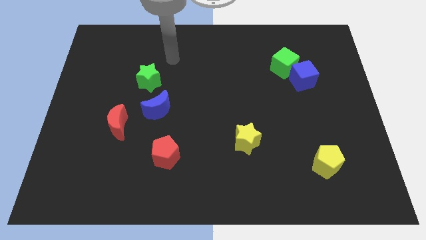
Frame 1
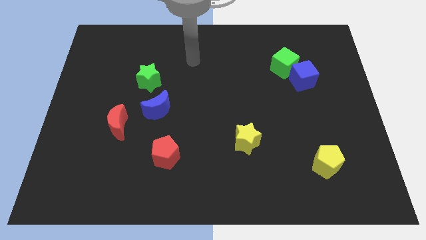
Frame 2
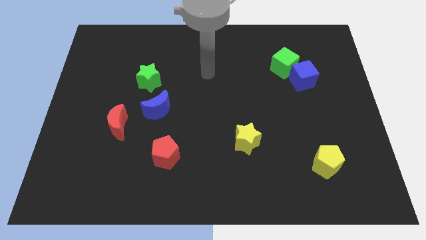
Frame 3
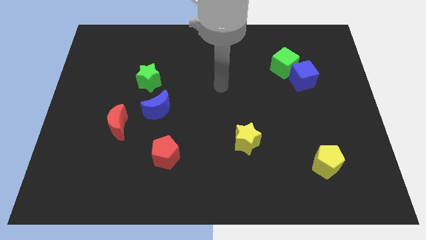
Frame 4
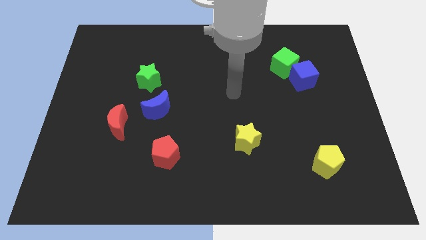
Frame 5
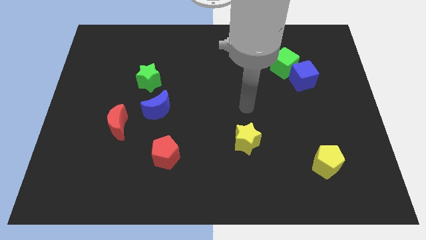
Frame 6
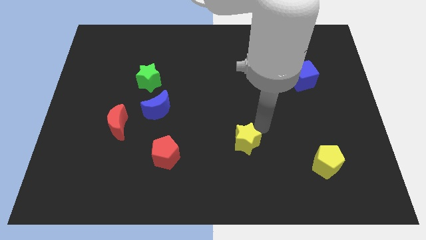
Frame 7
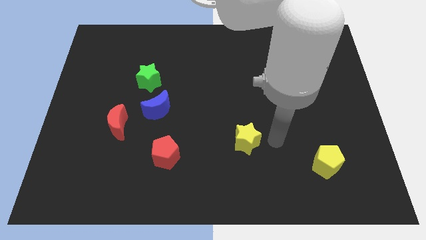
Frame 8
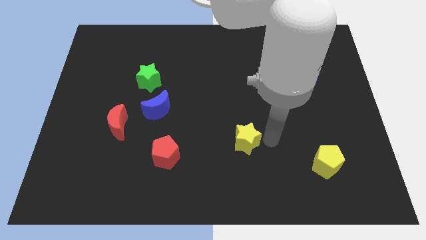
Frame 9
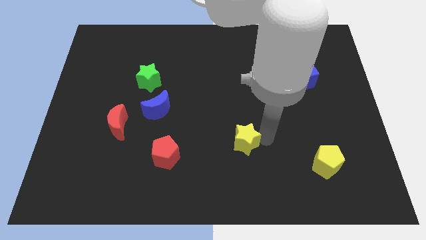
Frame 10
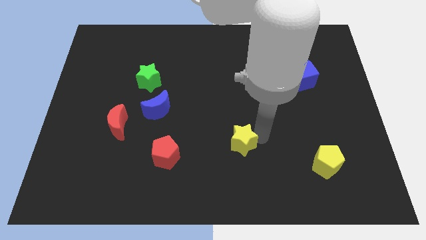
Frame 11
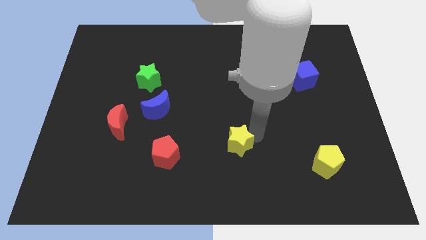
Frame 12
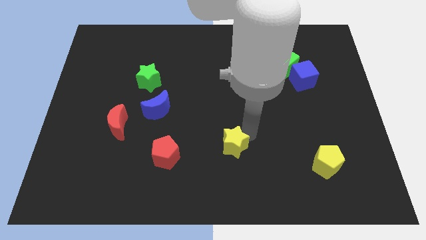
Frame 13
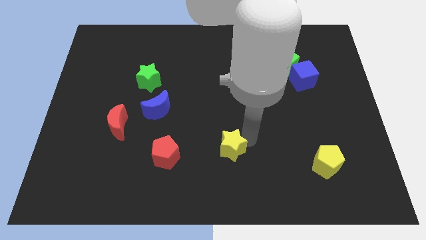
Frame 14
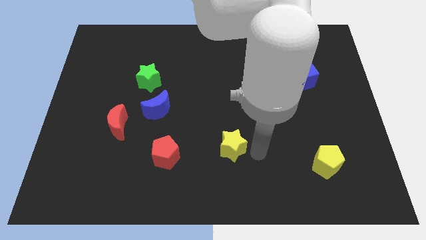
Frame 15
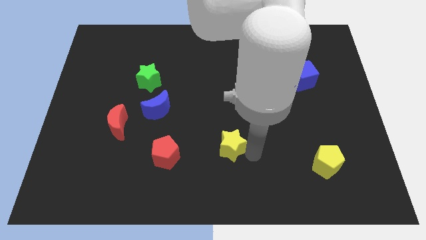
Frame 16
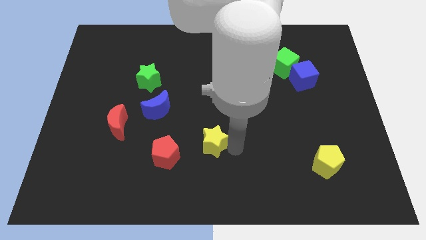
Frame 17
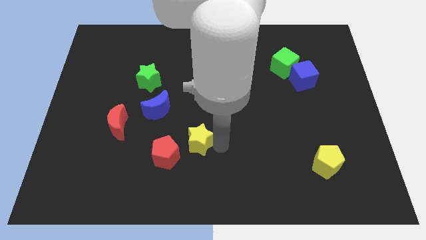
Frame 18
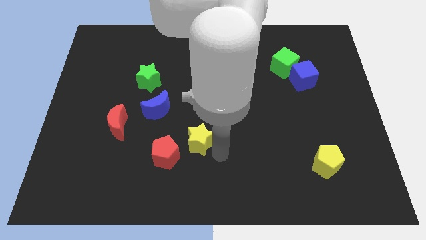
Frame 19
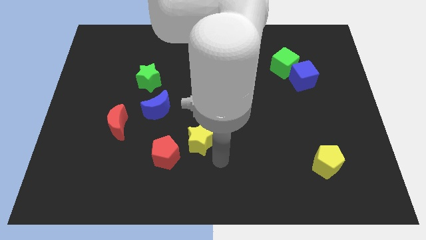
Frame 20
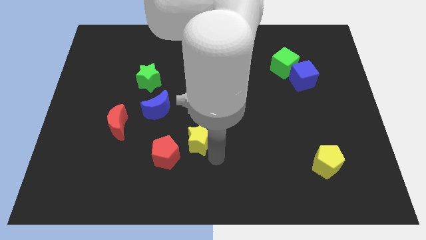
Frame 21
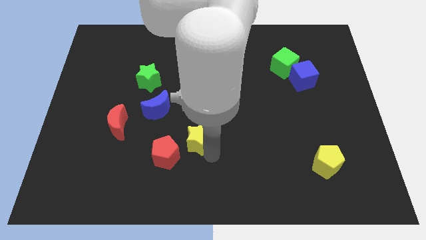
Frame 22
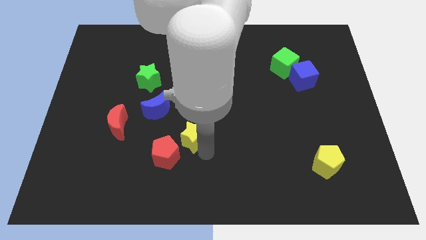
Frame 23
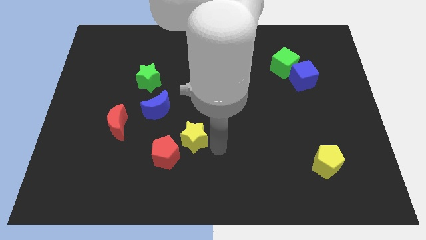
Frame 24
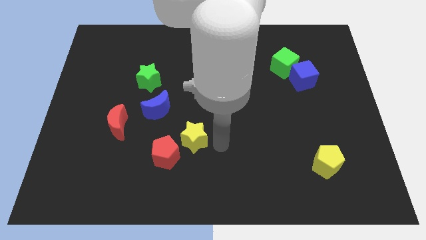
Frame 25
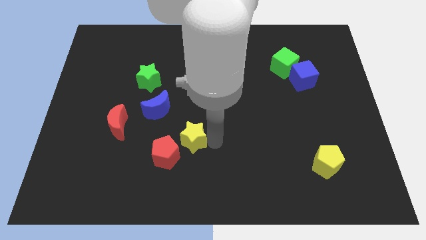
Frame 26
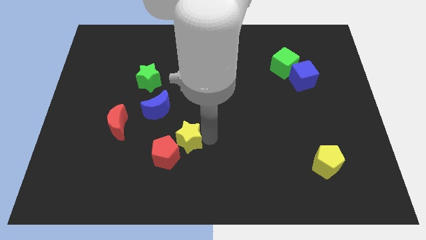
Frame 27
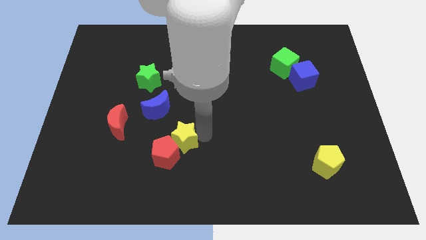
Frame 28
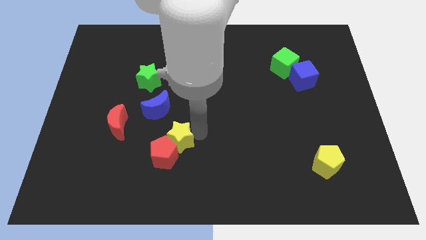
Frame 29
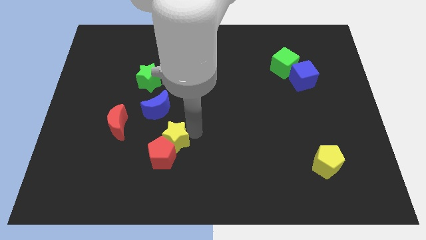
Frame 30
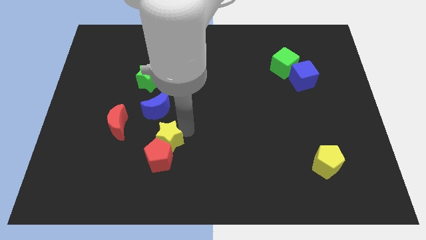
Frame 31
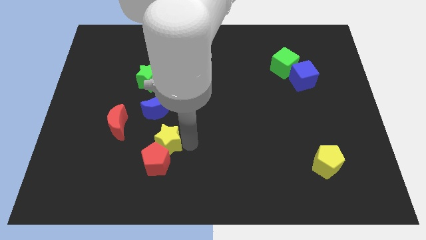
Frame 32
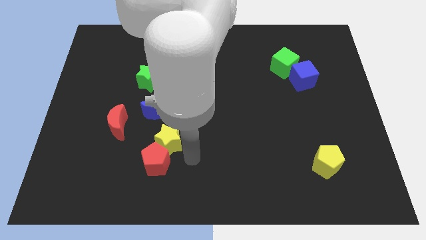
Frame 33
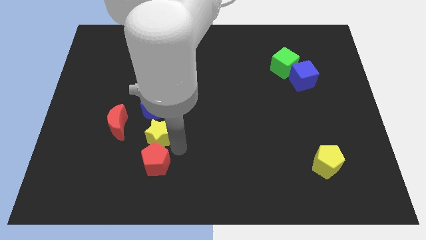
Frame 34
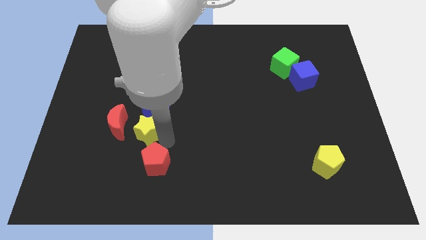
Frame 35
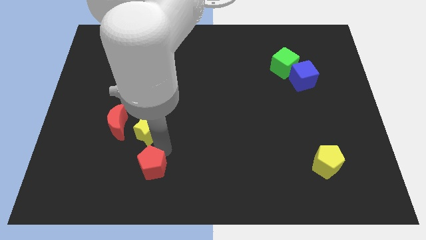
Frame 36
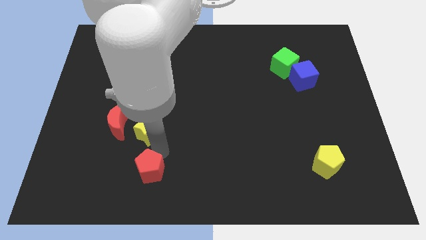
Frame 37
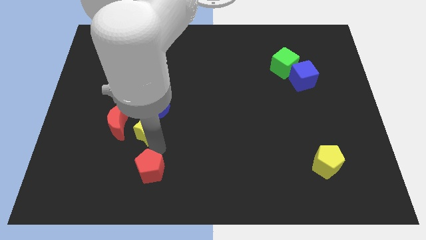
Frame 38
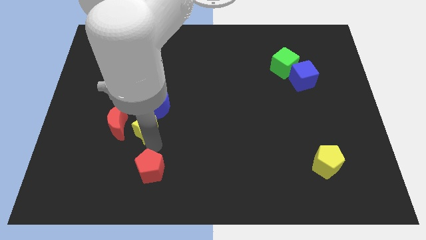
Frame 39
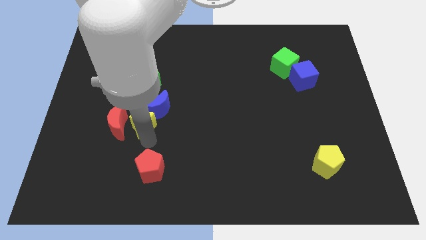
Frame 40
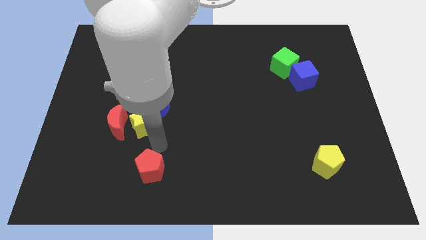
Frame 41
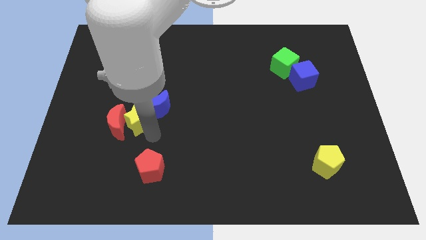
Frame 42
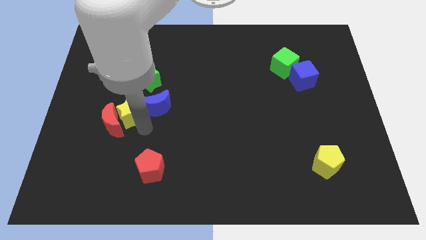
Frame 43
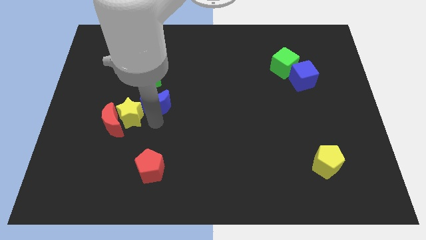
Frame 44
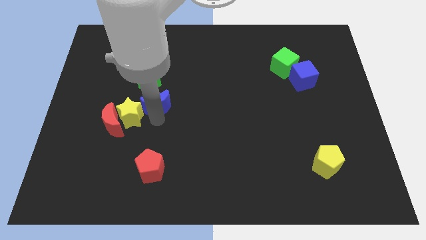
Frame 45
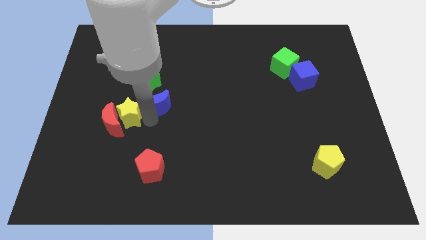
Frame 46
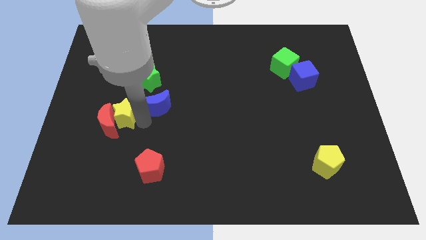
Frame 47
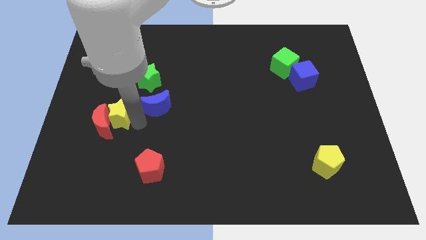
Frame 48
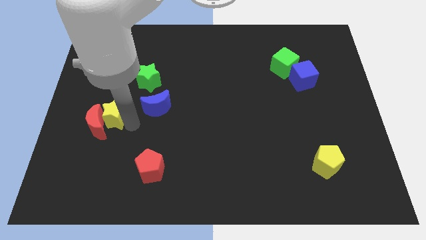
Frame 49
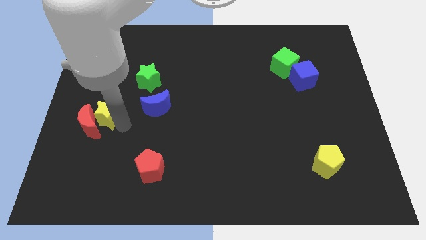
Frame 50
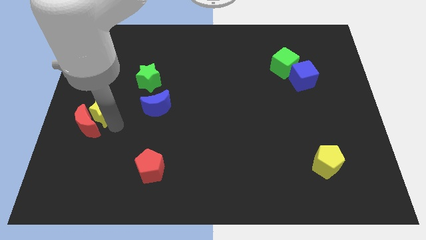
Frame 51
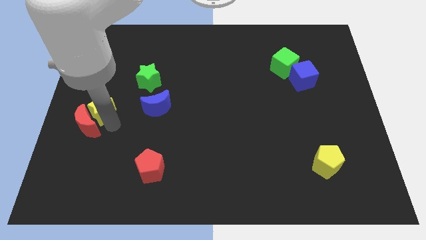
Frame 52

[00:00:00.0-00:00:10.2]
move the yellow star to the left side

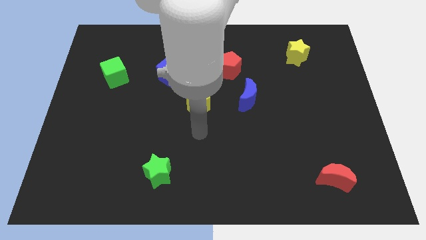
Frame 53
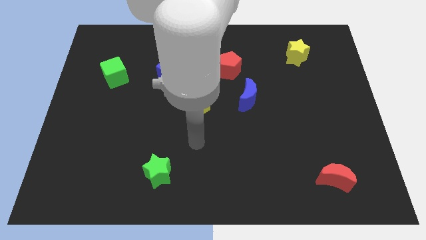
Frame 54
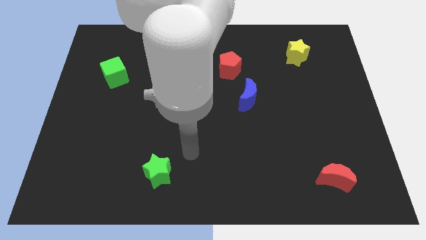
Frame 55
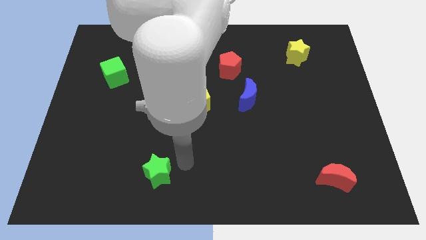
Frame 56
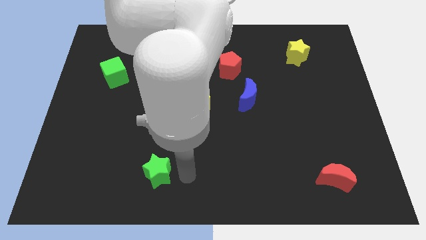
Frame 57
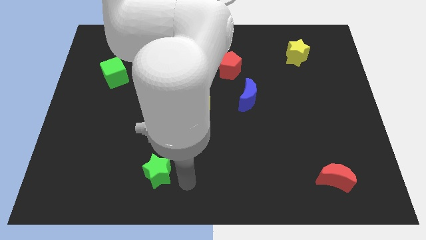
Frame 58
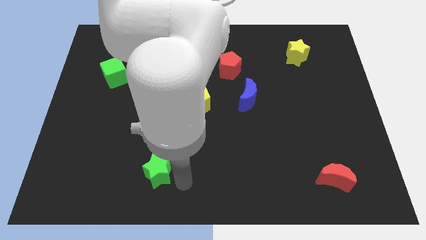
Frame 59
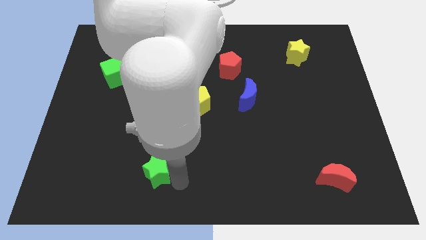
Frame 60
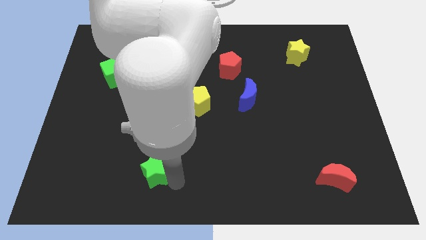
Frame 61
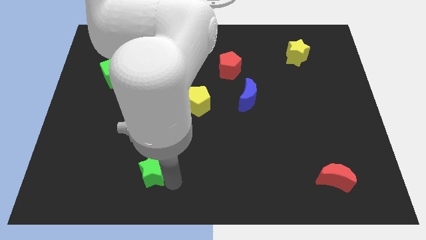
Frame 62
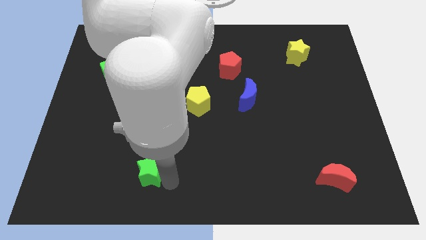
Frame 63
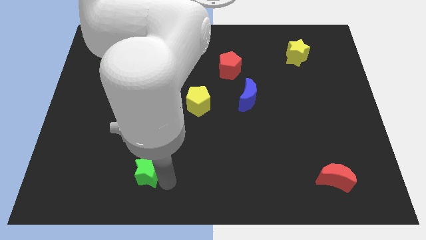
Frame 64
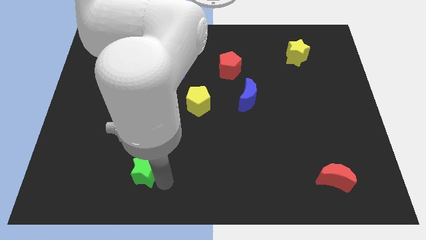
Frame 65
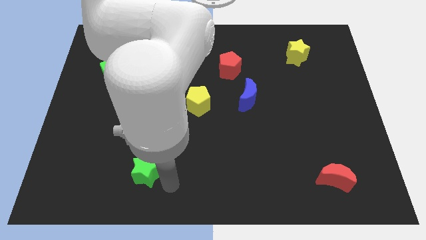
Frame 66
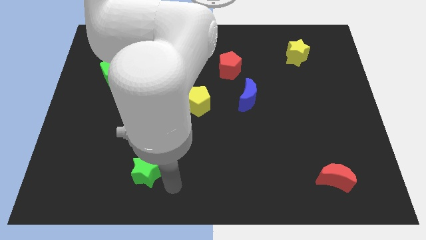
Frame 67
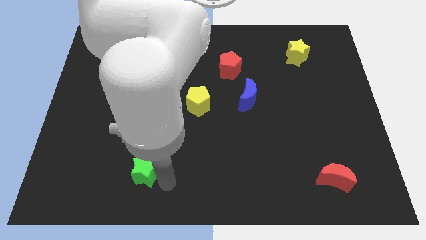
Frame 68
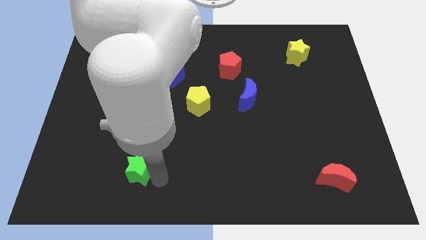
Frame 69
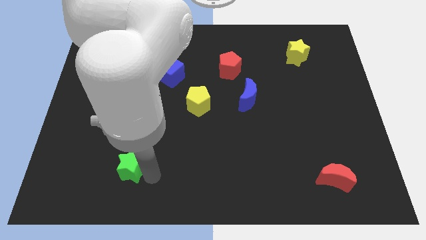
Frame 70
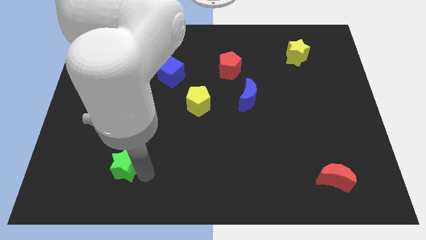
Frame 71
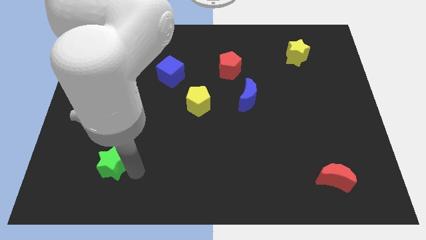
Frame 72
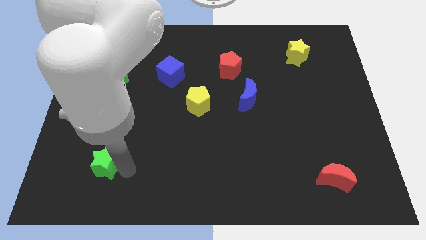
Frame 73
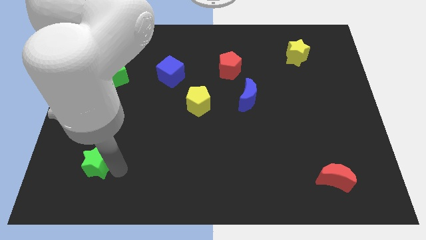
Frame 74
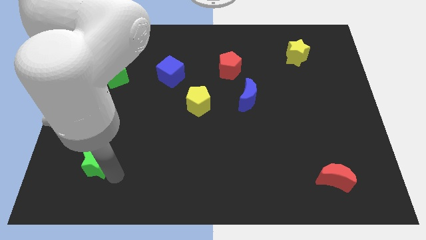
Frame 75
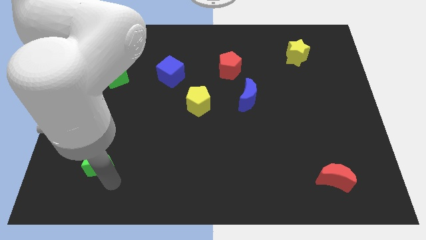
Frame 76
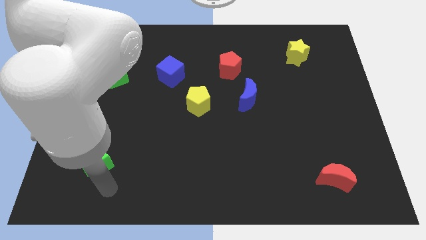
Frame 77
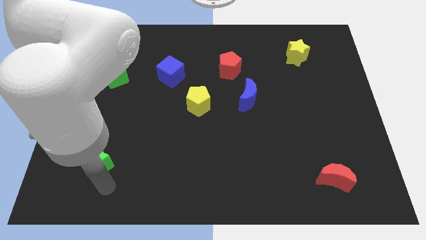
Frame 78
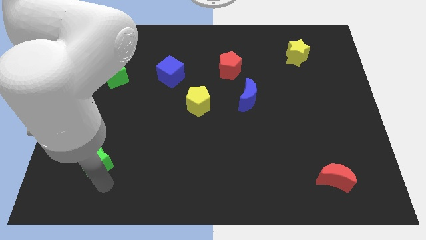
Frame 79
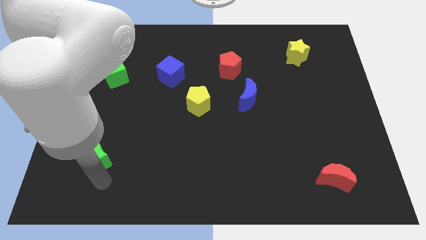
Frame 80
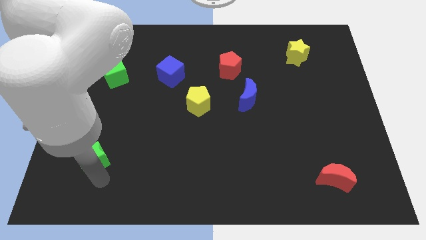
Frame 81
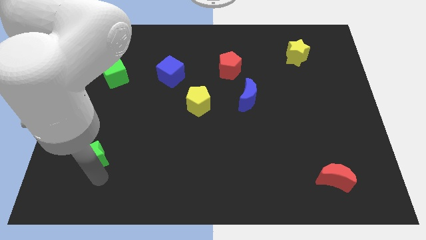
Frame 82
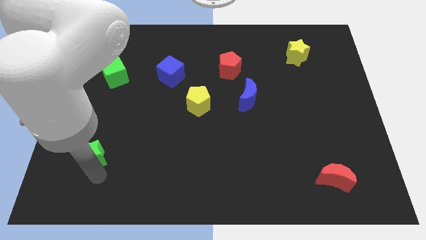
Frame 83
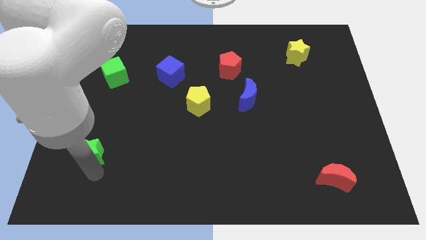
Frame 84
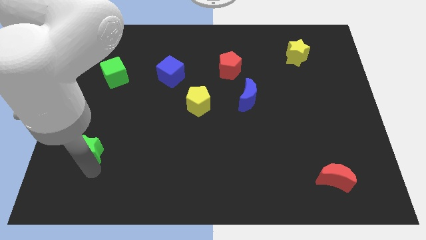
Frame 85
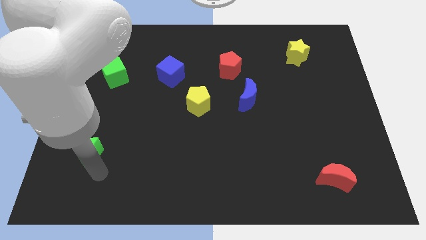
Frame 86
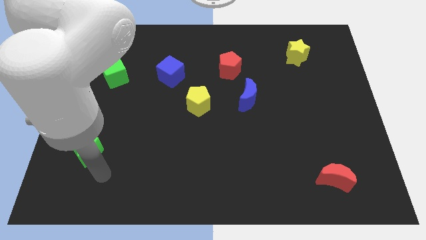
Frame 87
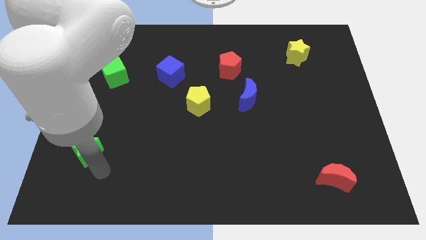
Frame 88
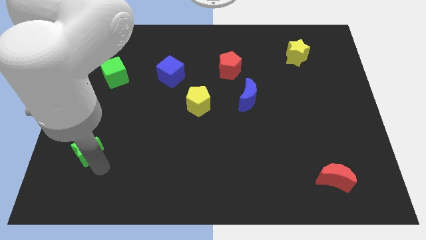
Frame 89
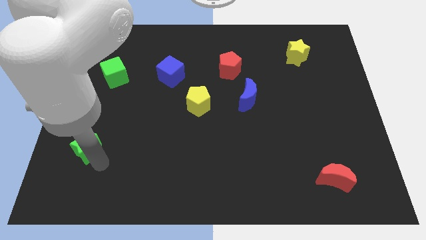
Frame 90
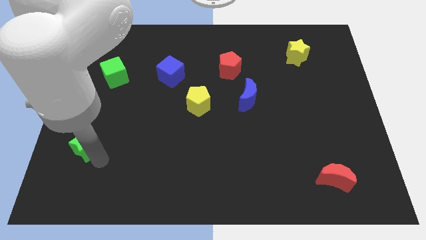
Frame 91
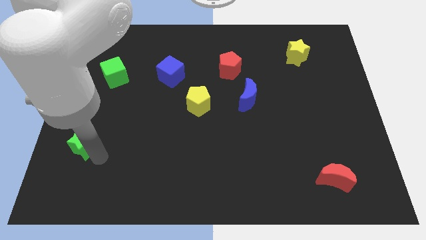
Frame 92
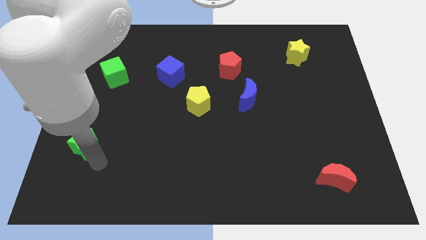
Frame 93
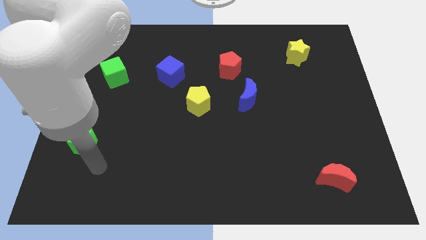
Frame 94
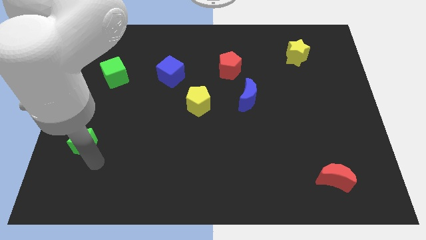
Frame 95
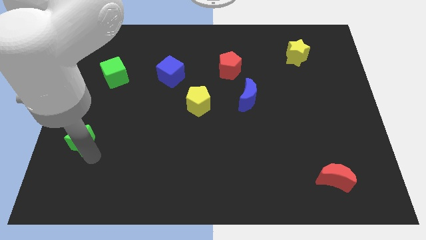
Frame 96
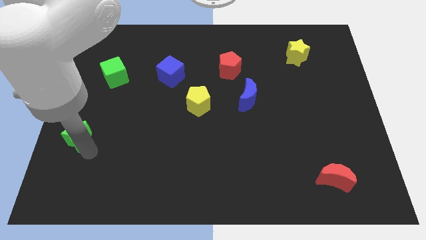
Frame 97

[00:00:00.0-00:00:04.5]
slide the green star to the left side of the board
